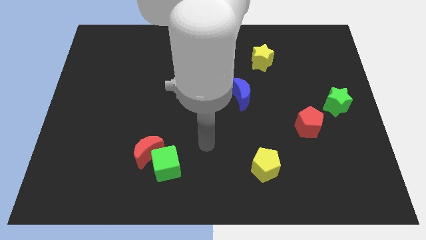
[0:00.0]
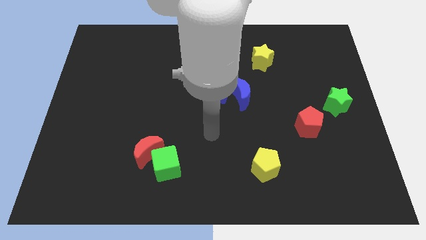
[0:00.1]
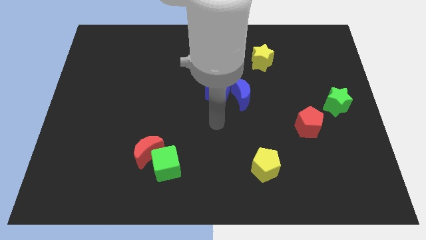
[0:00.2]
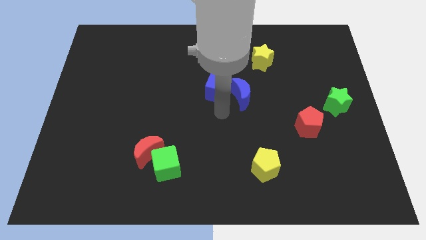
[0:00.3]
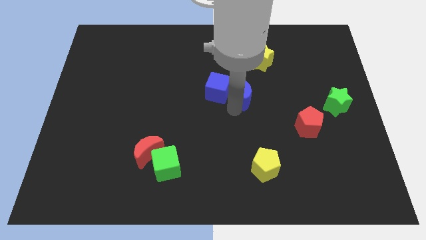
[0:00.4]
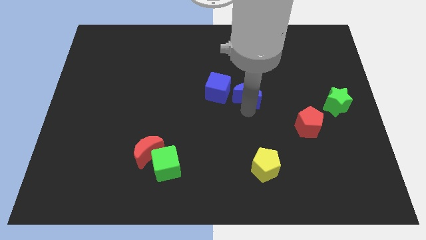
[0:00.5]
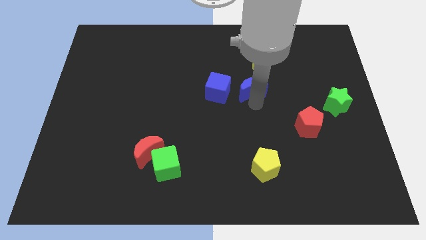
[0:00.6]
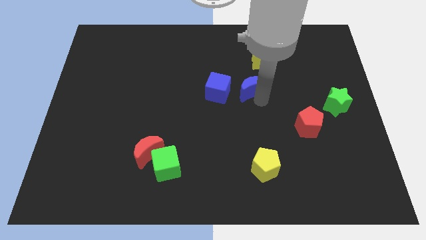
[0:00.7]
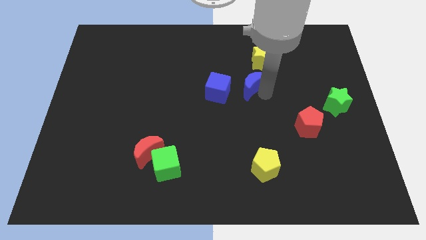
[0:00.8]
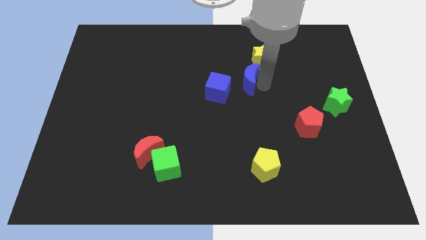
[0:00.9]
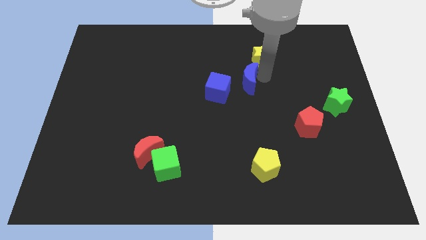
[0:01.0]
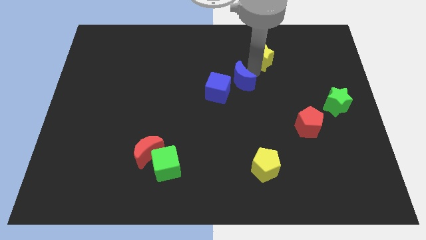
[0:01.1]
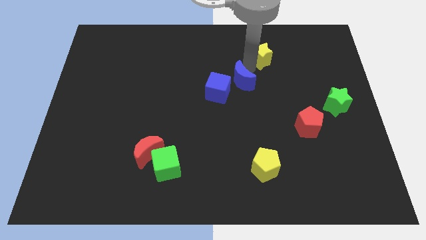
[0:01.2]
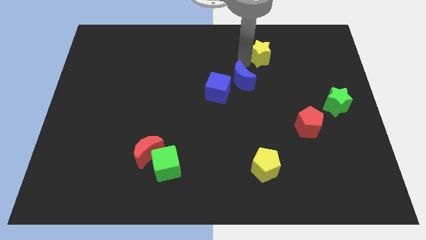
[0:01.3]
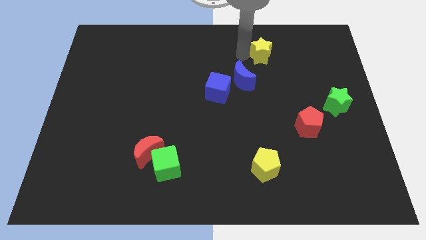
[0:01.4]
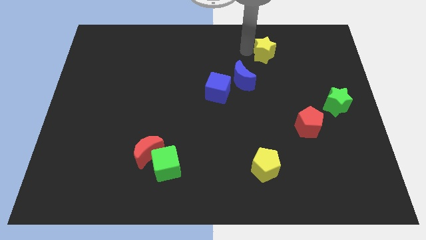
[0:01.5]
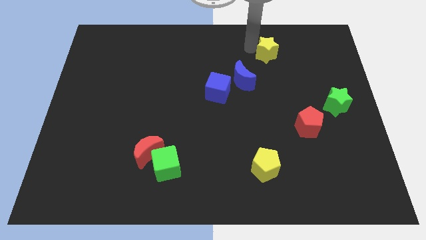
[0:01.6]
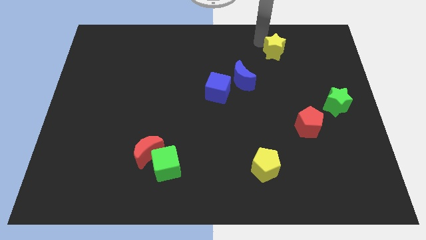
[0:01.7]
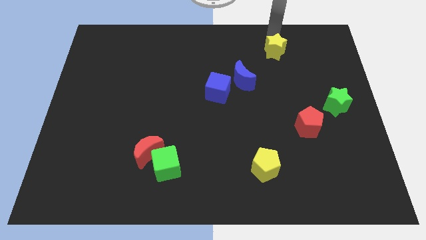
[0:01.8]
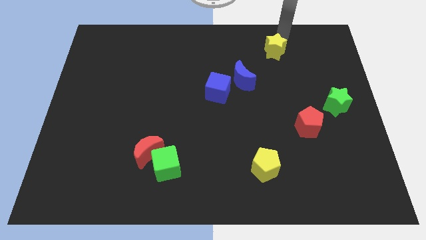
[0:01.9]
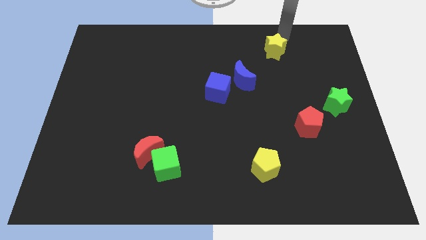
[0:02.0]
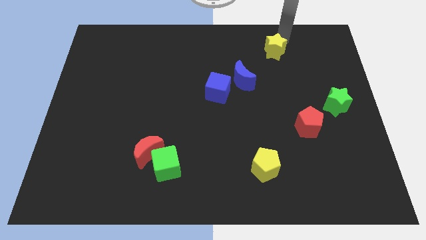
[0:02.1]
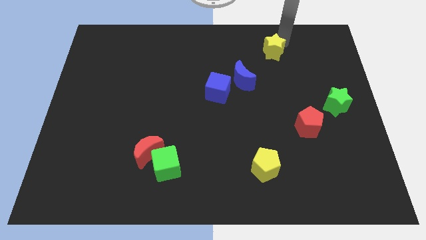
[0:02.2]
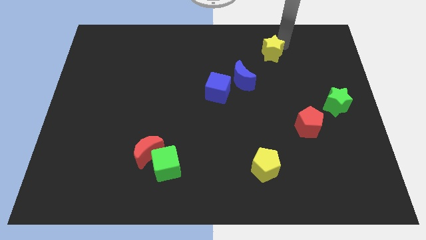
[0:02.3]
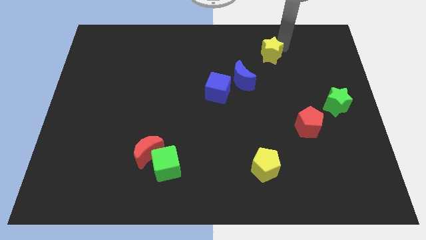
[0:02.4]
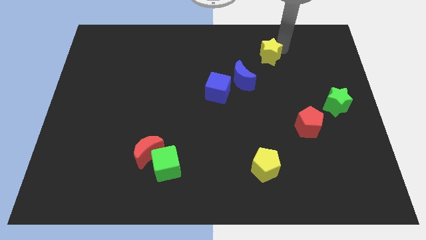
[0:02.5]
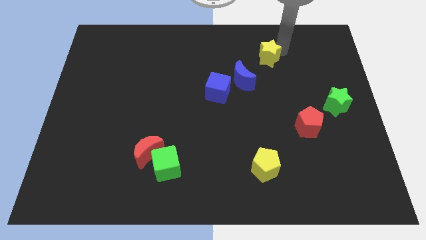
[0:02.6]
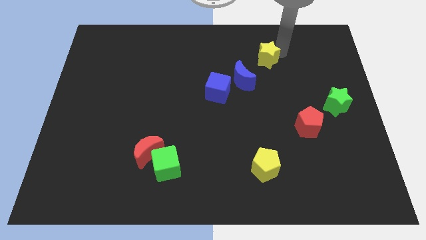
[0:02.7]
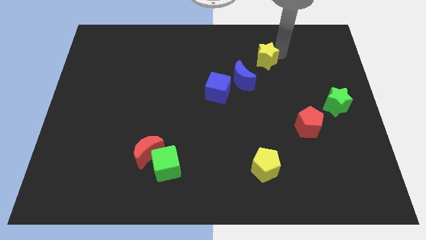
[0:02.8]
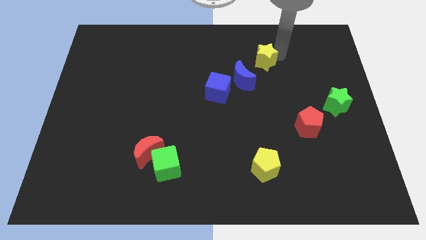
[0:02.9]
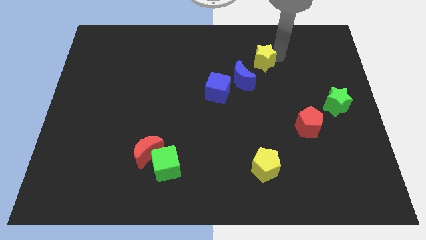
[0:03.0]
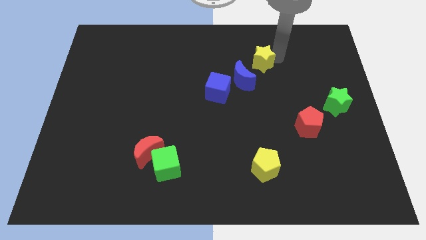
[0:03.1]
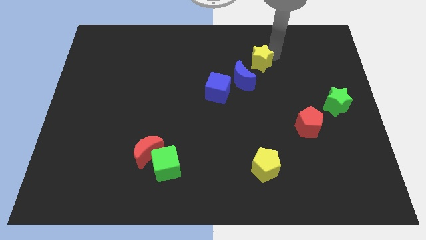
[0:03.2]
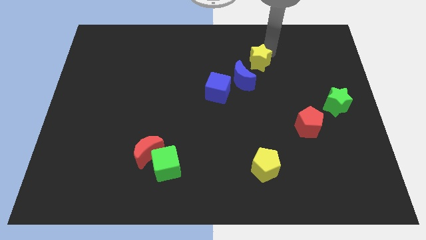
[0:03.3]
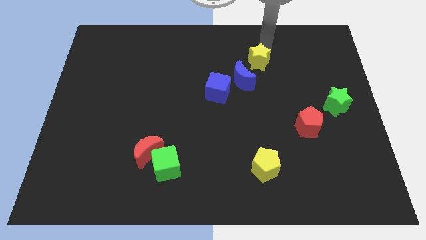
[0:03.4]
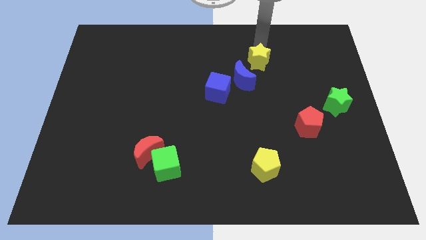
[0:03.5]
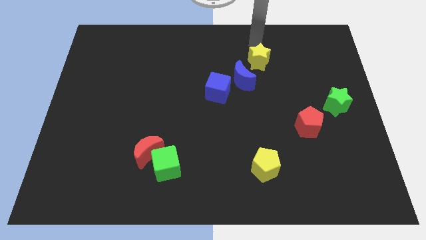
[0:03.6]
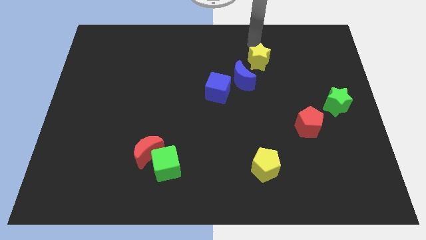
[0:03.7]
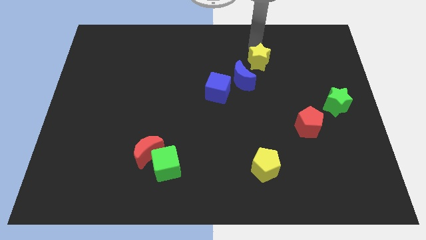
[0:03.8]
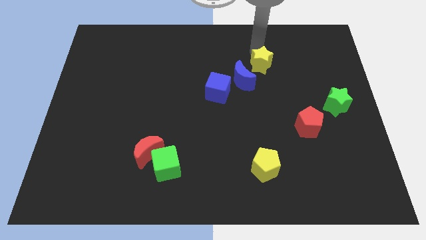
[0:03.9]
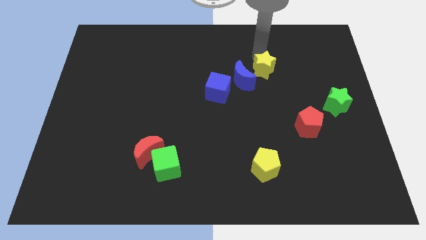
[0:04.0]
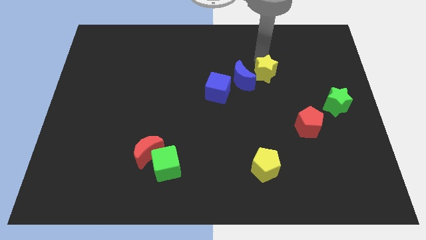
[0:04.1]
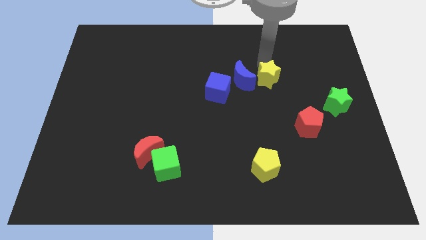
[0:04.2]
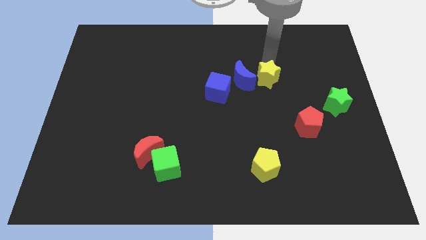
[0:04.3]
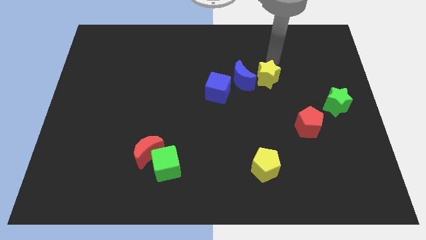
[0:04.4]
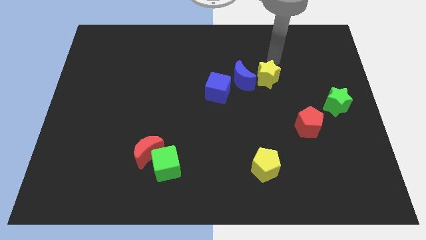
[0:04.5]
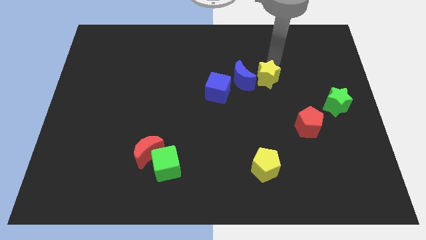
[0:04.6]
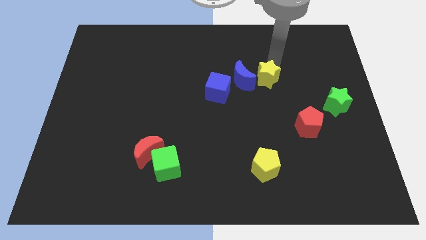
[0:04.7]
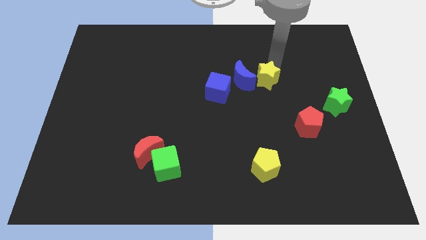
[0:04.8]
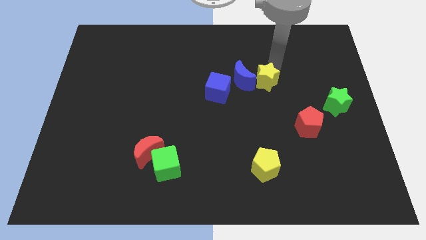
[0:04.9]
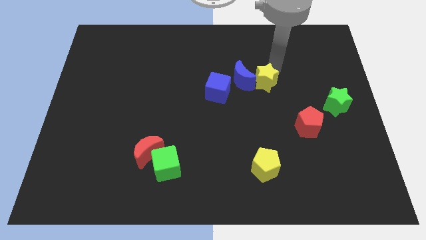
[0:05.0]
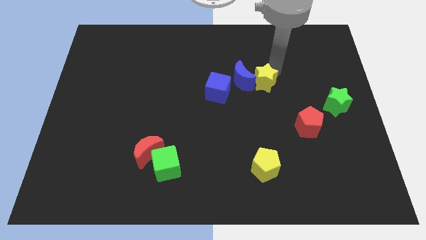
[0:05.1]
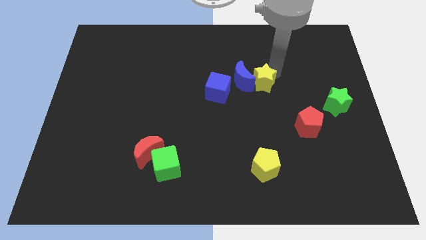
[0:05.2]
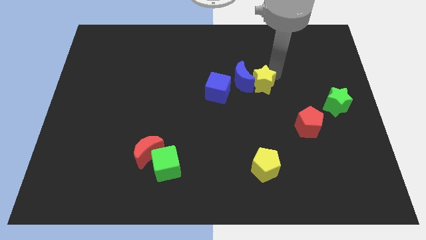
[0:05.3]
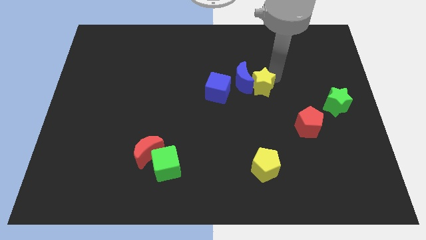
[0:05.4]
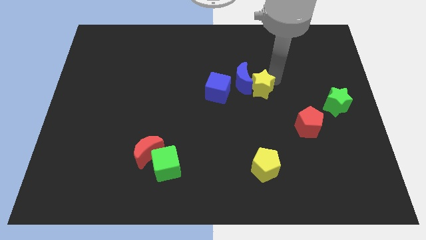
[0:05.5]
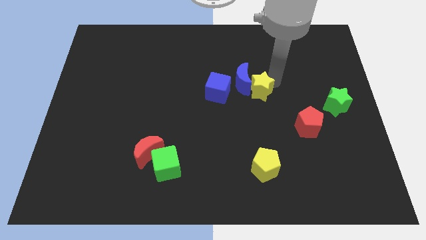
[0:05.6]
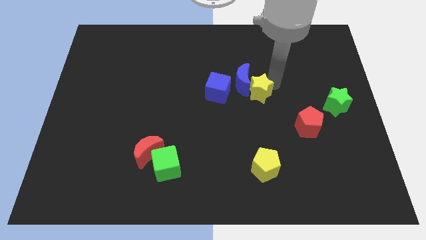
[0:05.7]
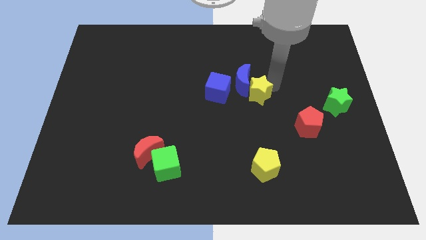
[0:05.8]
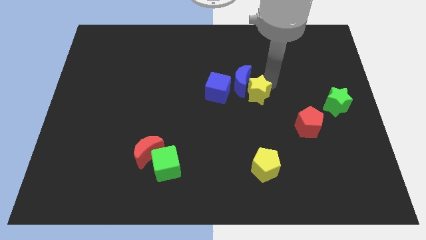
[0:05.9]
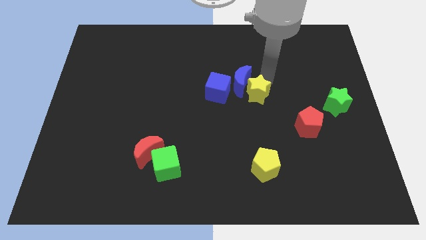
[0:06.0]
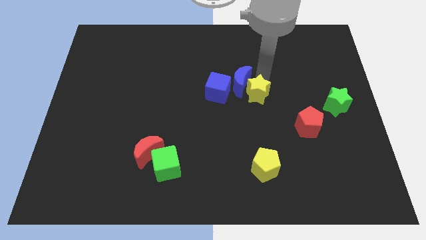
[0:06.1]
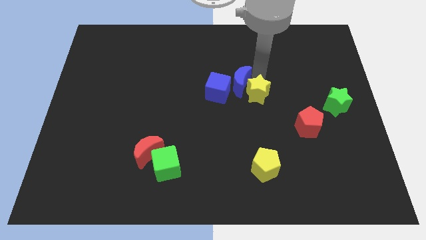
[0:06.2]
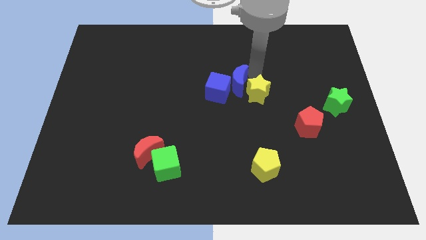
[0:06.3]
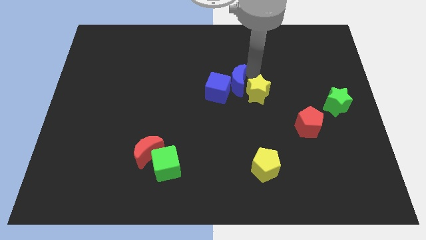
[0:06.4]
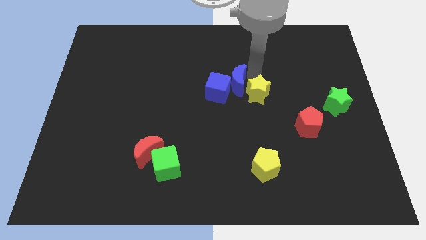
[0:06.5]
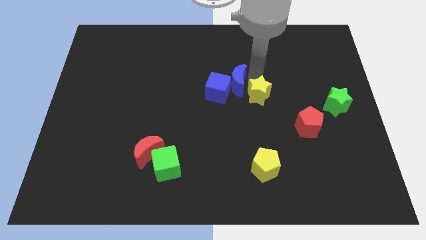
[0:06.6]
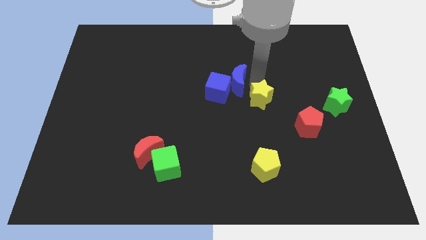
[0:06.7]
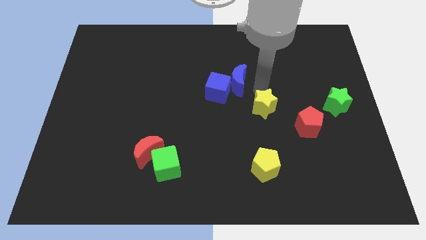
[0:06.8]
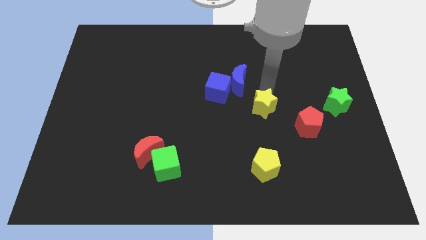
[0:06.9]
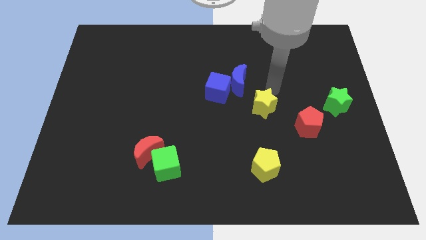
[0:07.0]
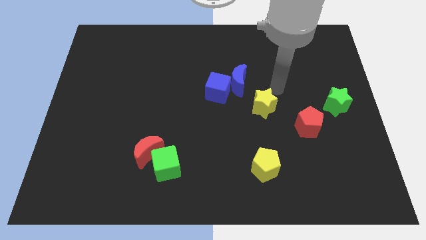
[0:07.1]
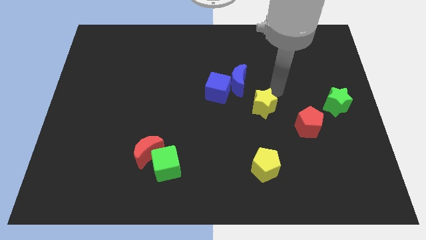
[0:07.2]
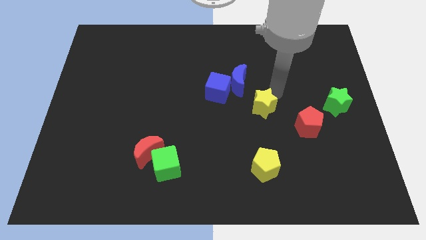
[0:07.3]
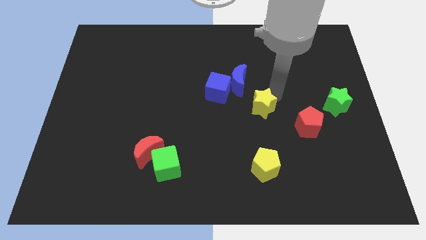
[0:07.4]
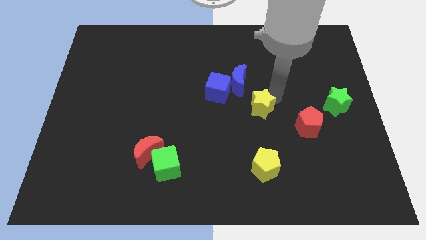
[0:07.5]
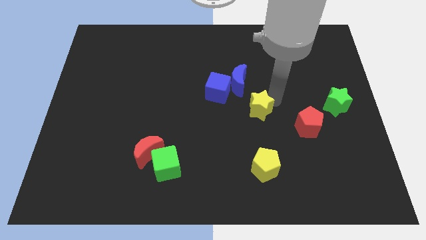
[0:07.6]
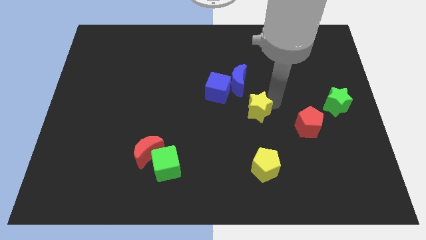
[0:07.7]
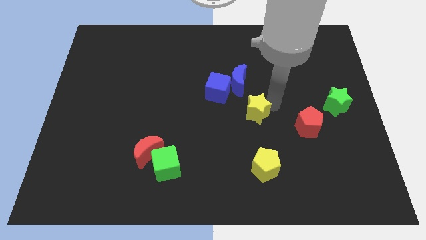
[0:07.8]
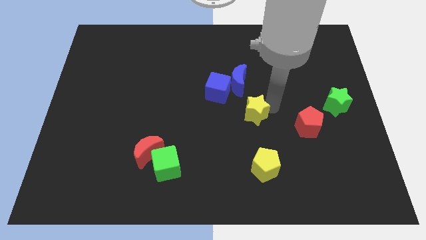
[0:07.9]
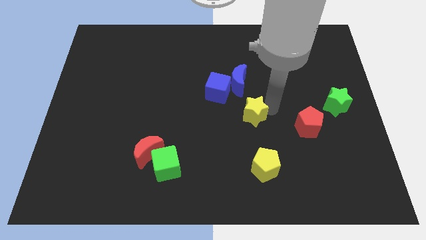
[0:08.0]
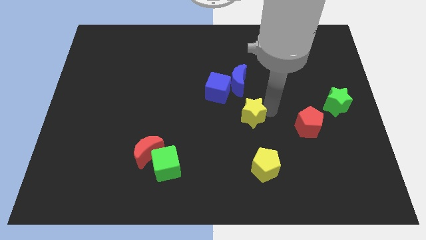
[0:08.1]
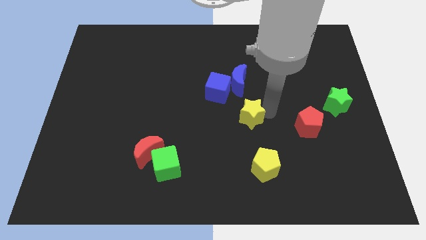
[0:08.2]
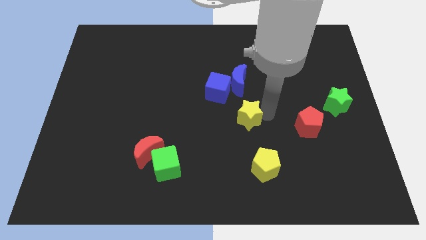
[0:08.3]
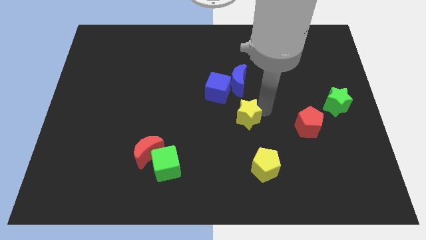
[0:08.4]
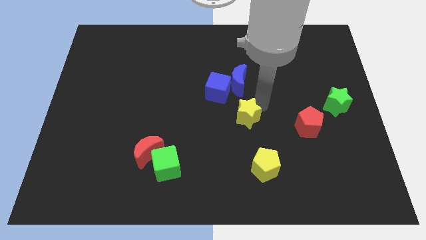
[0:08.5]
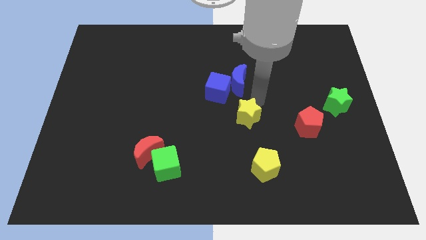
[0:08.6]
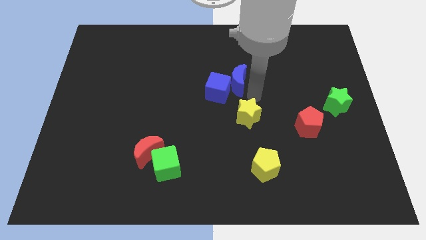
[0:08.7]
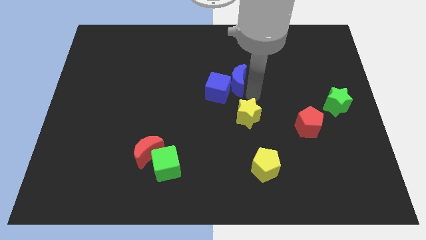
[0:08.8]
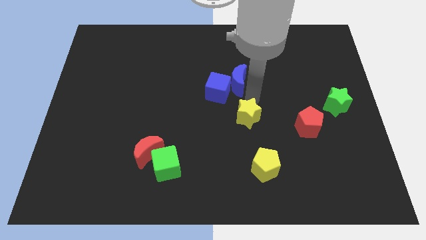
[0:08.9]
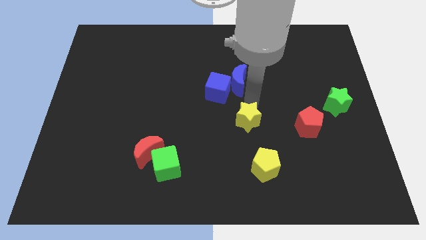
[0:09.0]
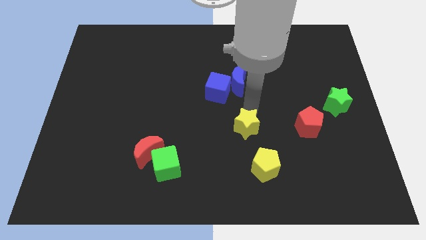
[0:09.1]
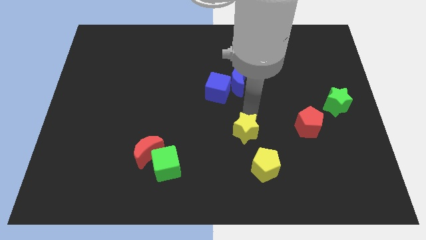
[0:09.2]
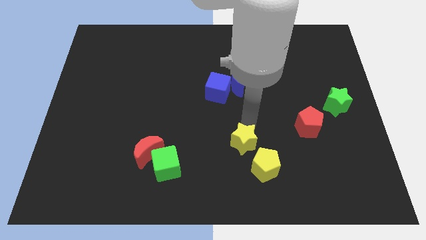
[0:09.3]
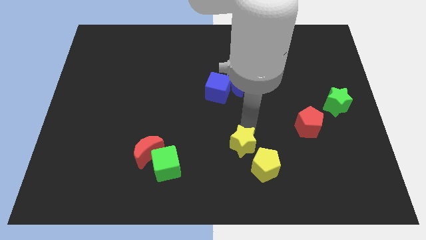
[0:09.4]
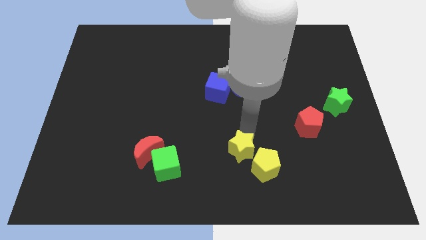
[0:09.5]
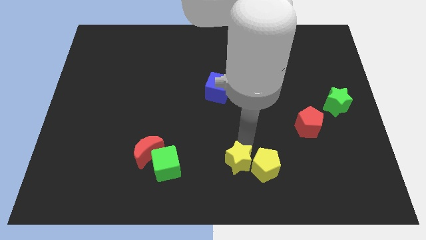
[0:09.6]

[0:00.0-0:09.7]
put the yellow star to the bottom
